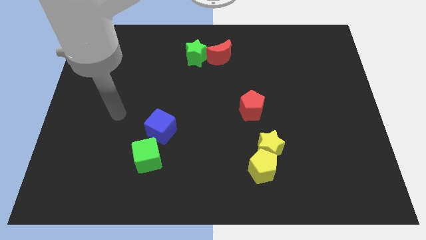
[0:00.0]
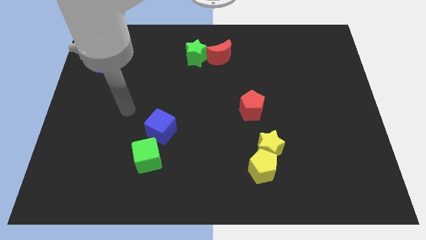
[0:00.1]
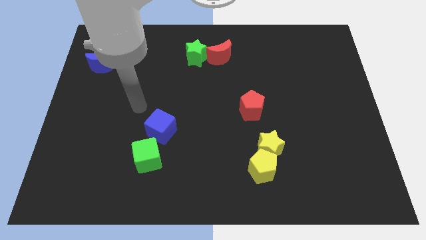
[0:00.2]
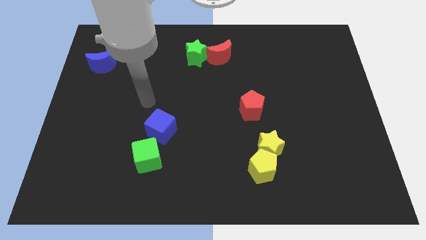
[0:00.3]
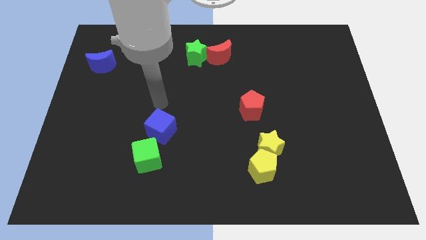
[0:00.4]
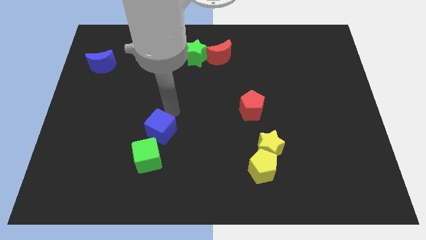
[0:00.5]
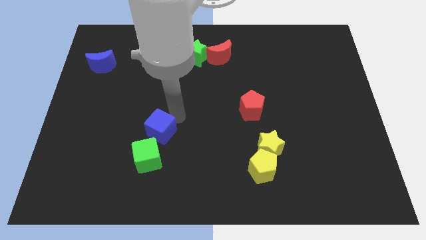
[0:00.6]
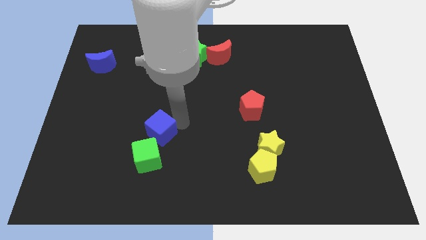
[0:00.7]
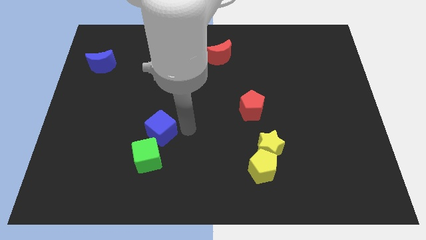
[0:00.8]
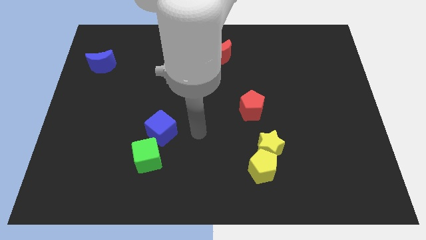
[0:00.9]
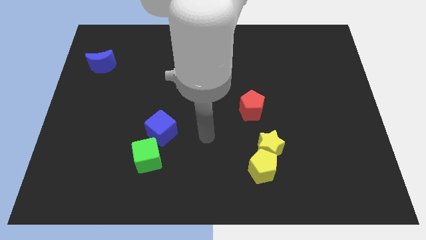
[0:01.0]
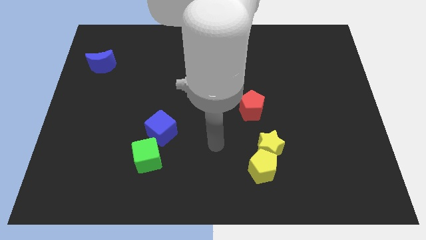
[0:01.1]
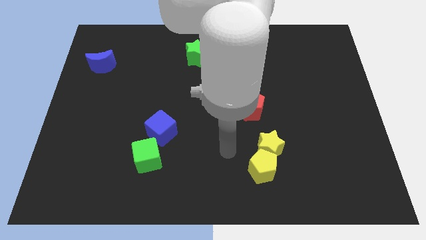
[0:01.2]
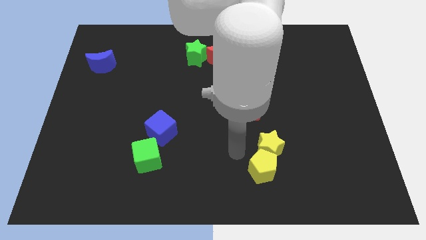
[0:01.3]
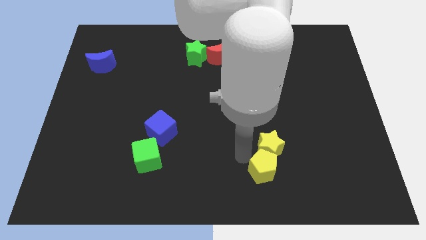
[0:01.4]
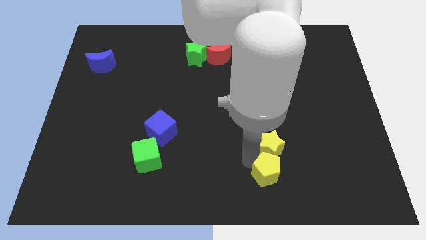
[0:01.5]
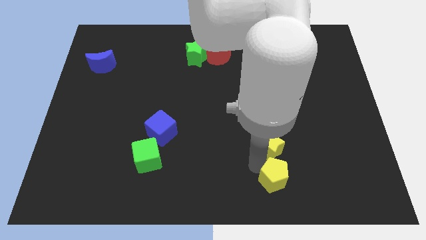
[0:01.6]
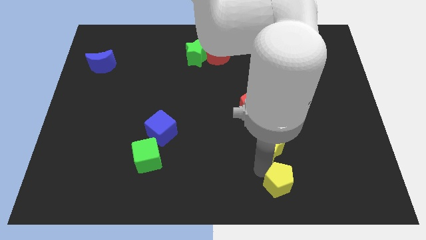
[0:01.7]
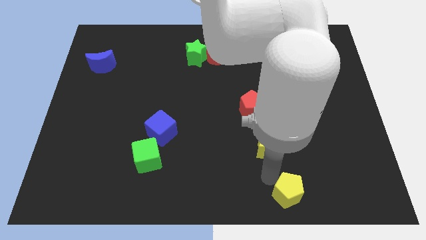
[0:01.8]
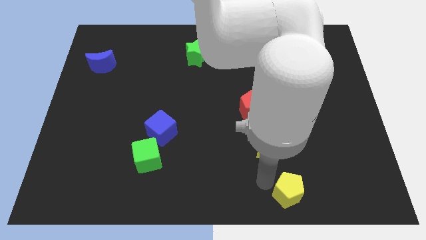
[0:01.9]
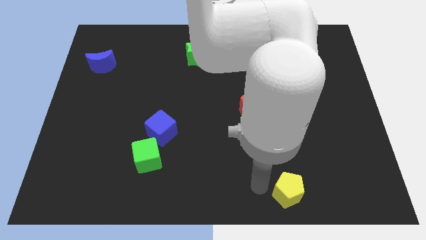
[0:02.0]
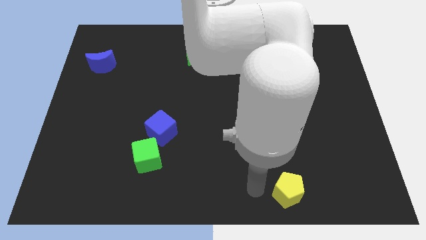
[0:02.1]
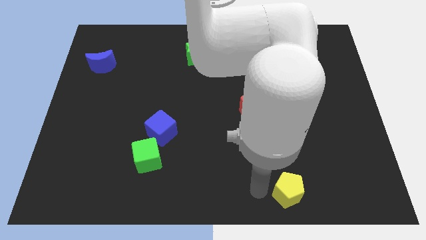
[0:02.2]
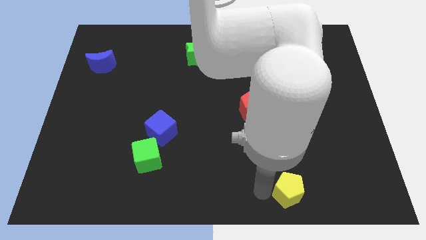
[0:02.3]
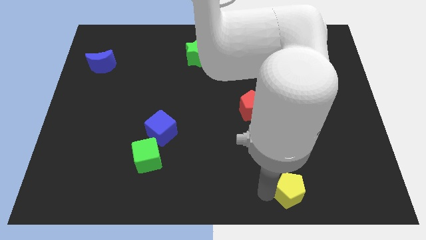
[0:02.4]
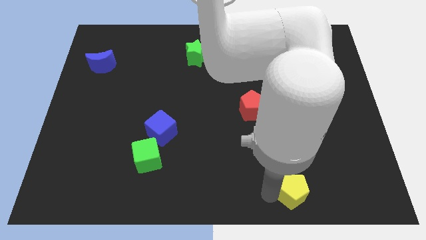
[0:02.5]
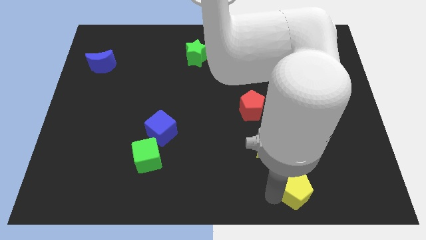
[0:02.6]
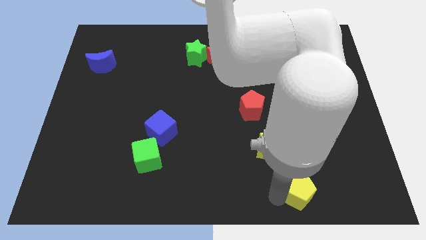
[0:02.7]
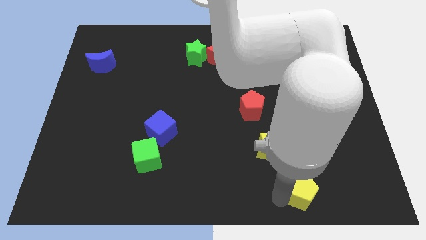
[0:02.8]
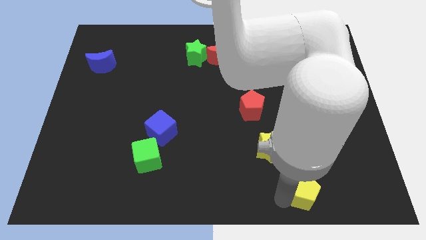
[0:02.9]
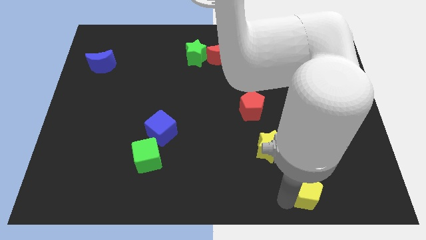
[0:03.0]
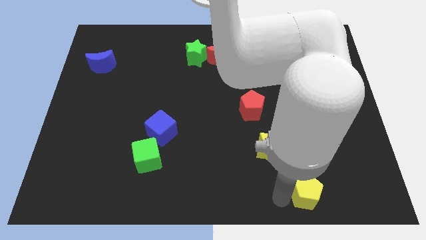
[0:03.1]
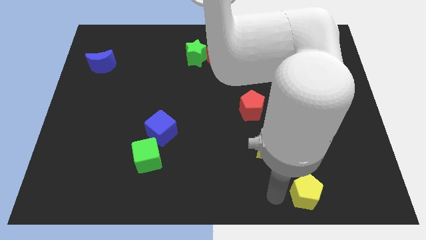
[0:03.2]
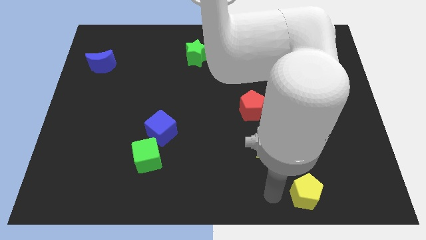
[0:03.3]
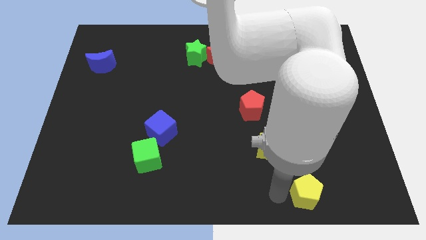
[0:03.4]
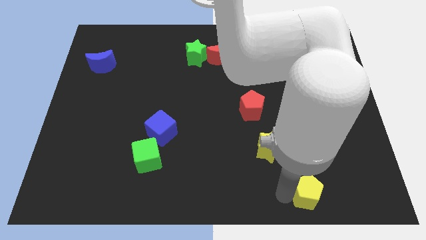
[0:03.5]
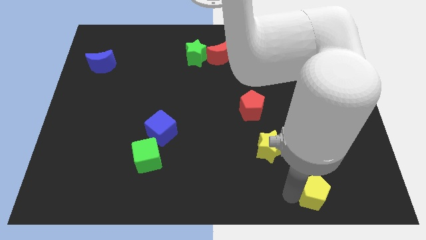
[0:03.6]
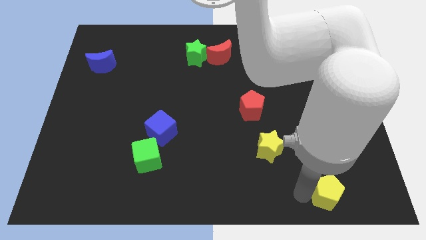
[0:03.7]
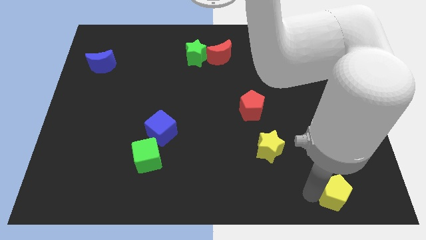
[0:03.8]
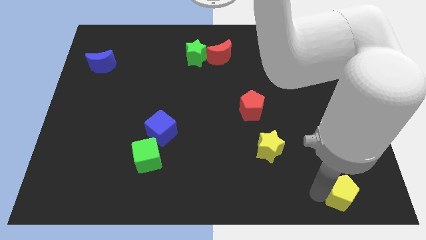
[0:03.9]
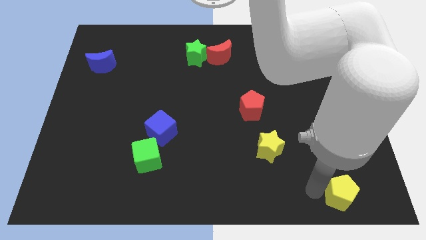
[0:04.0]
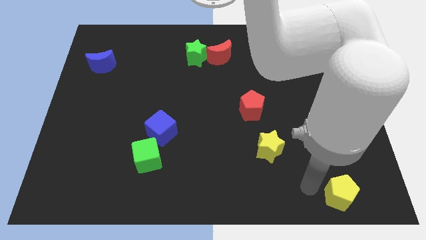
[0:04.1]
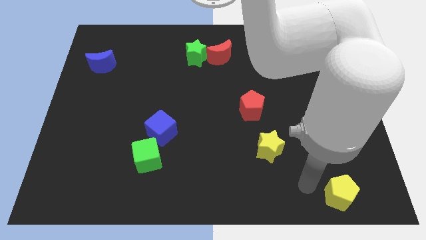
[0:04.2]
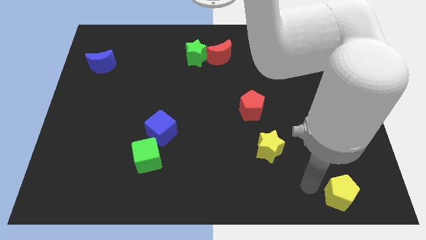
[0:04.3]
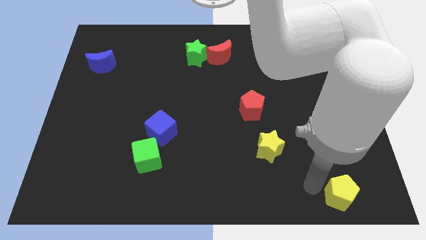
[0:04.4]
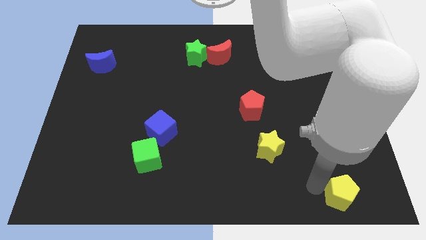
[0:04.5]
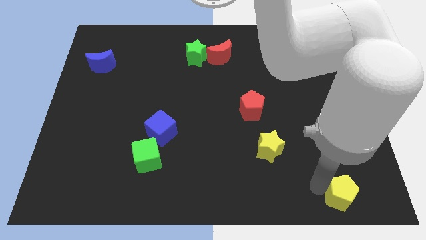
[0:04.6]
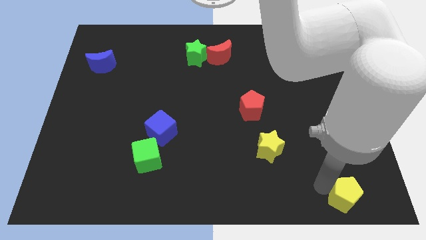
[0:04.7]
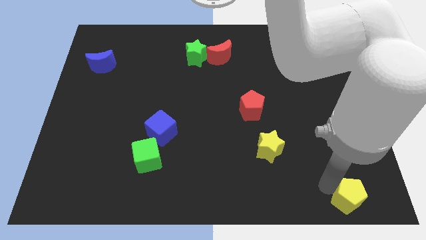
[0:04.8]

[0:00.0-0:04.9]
push the yellow pentagon to the bottom right of the board

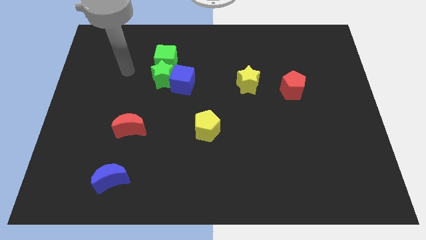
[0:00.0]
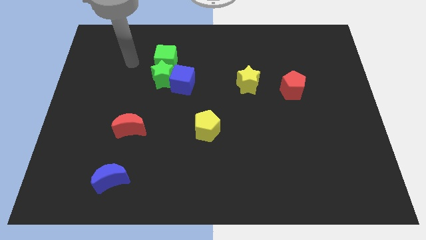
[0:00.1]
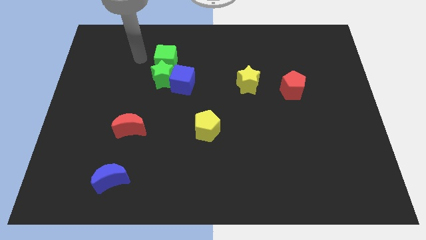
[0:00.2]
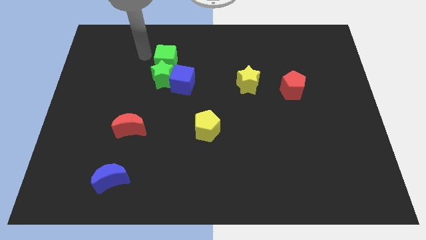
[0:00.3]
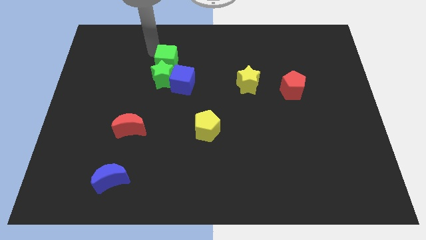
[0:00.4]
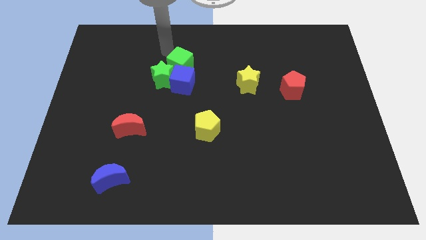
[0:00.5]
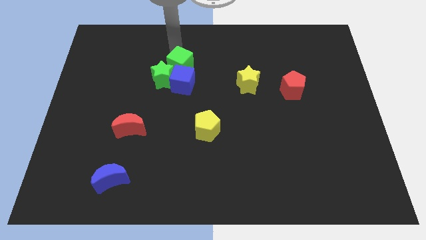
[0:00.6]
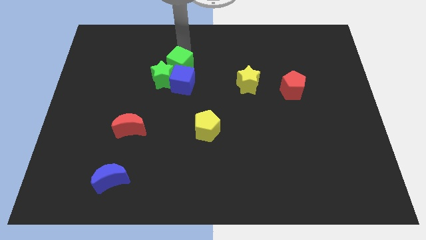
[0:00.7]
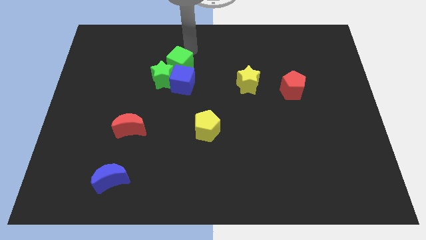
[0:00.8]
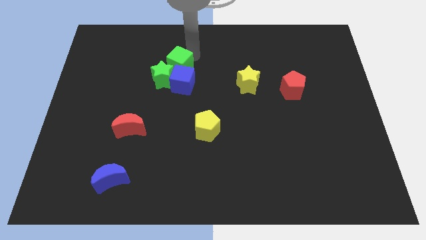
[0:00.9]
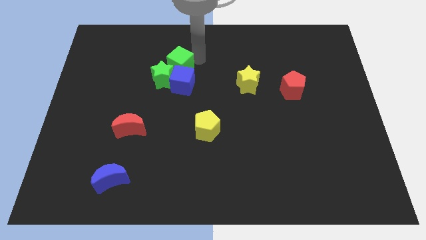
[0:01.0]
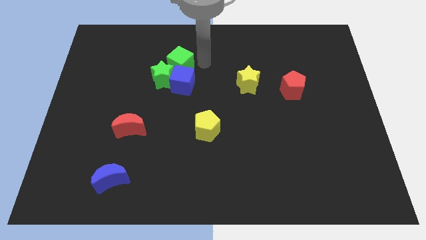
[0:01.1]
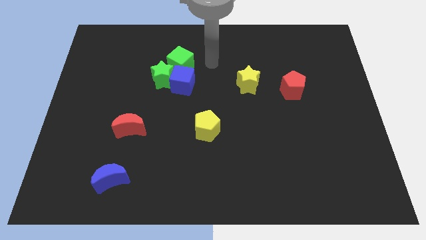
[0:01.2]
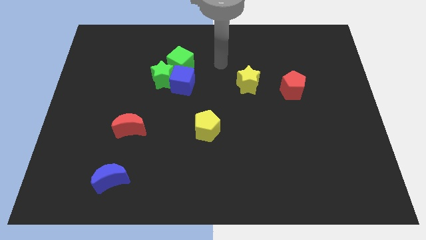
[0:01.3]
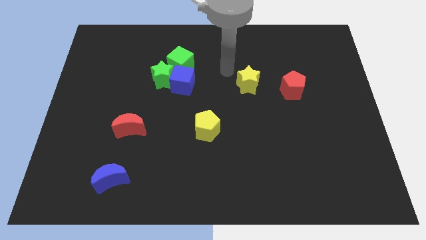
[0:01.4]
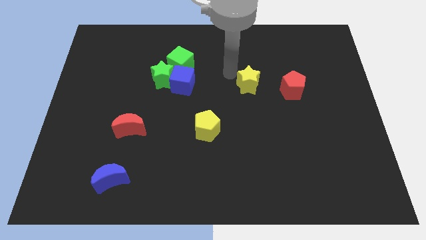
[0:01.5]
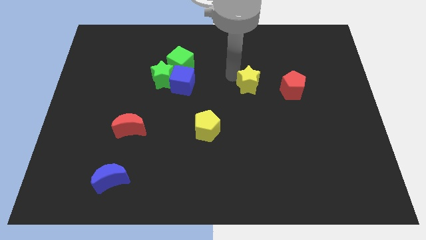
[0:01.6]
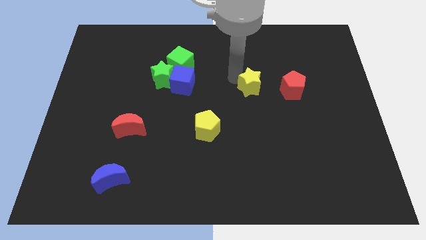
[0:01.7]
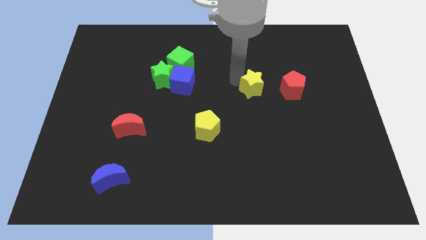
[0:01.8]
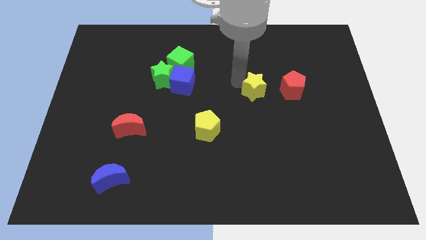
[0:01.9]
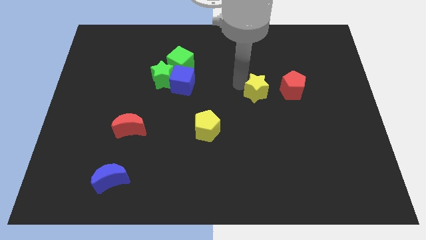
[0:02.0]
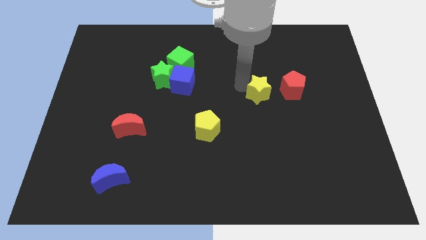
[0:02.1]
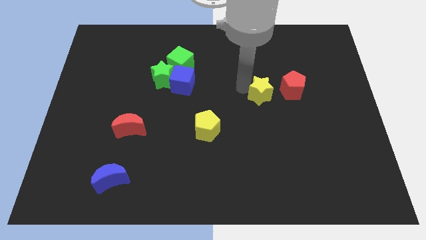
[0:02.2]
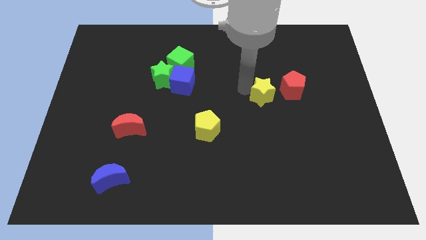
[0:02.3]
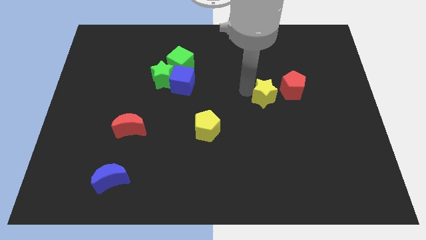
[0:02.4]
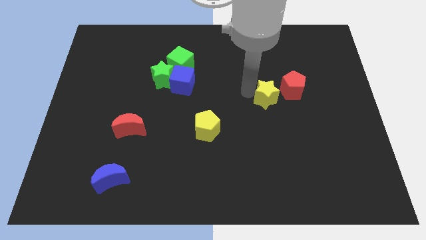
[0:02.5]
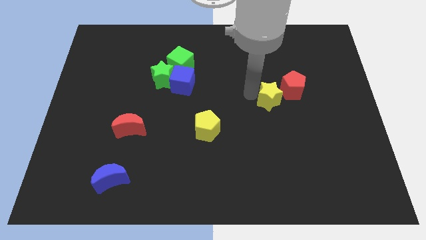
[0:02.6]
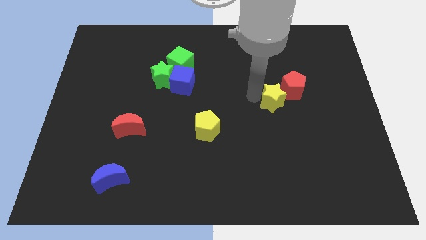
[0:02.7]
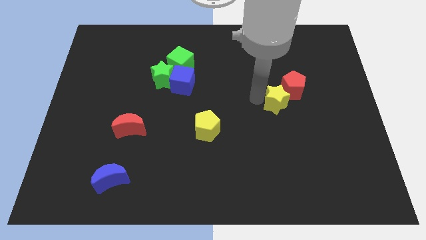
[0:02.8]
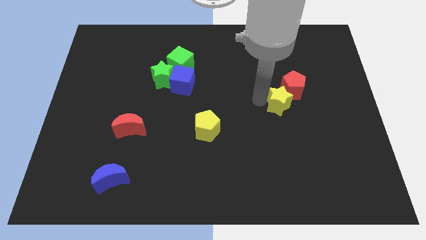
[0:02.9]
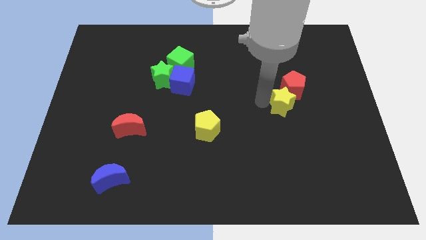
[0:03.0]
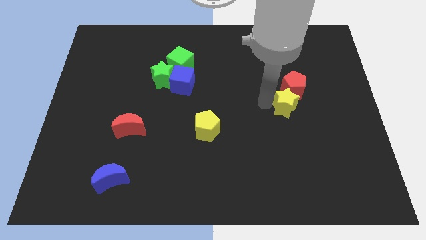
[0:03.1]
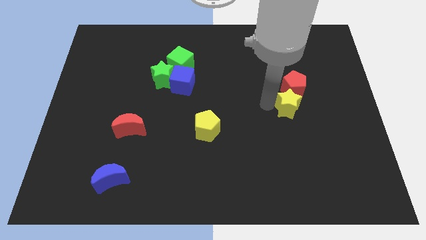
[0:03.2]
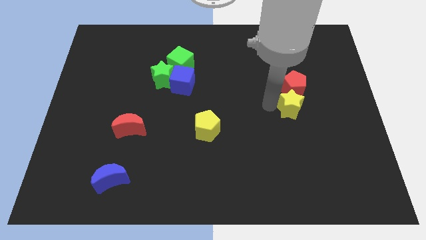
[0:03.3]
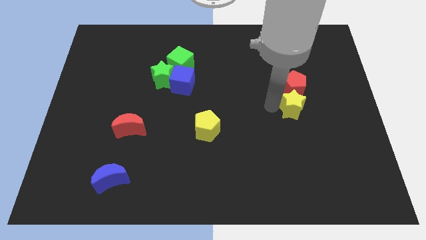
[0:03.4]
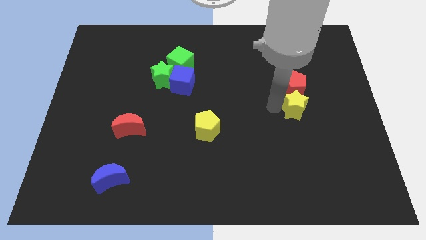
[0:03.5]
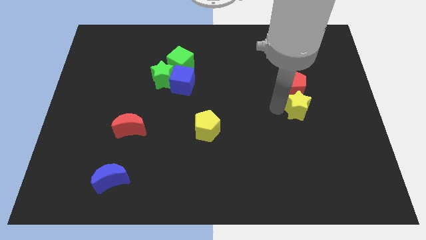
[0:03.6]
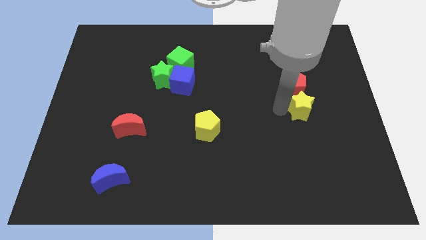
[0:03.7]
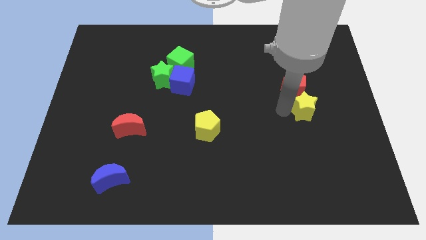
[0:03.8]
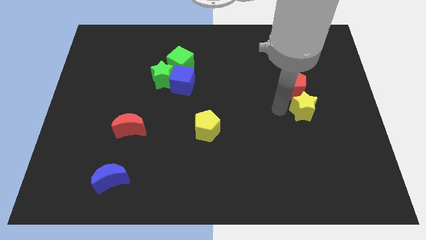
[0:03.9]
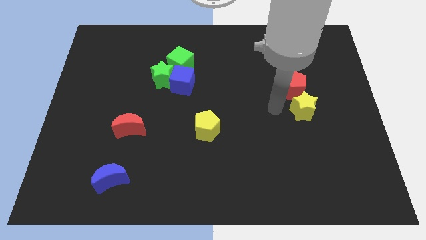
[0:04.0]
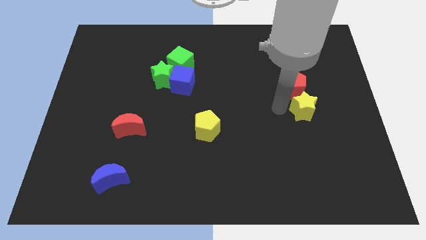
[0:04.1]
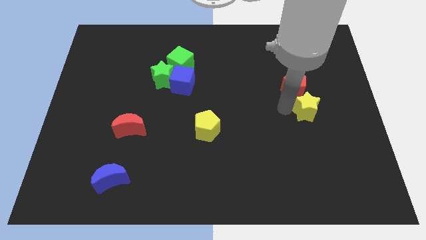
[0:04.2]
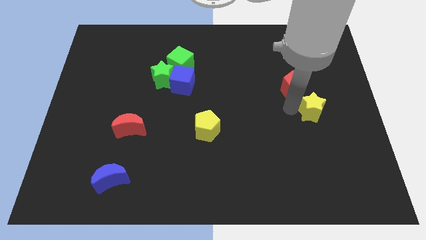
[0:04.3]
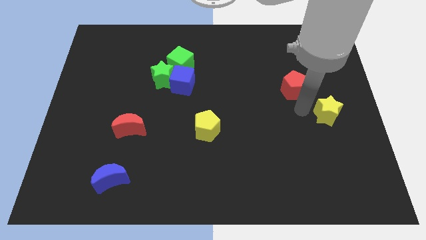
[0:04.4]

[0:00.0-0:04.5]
put the yellow star to the center right
